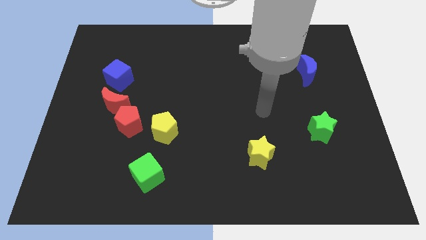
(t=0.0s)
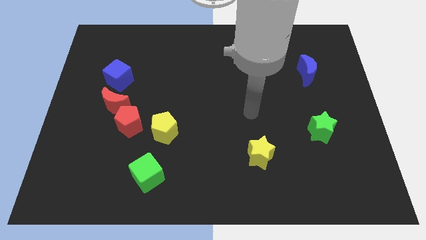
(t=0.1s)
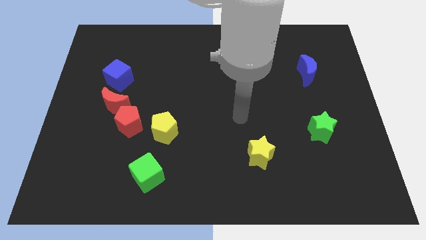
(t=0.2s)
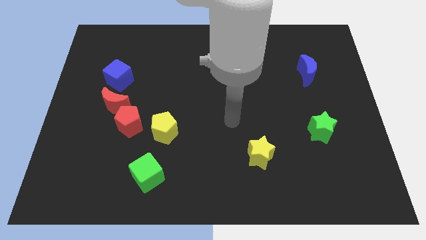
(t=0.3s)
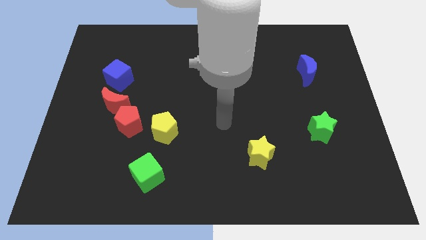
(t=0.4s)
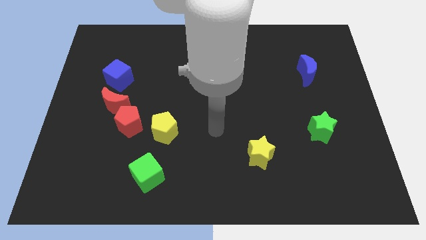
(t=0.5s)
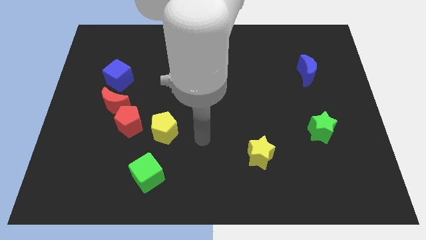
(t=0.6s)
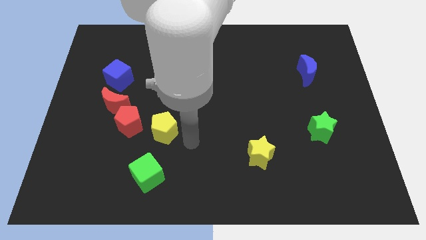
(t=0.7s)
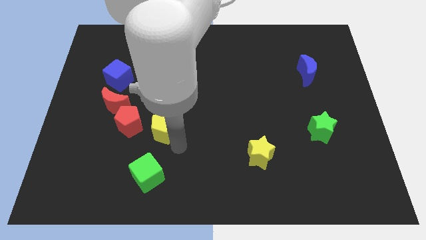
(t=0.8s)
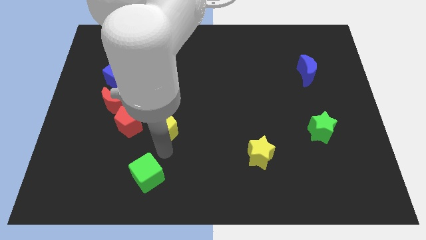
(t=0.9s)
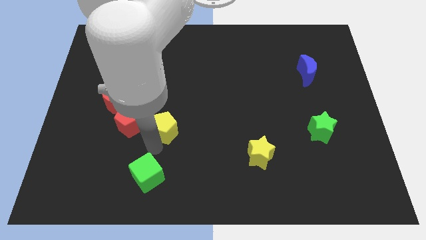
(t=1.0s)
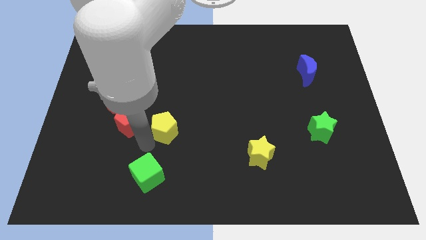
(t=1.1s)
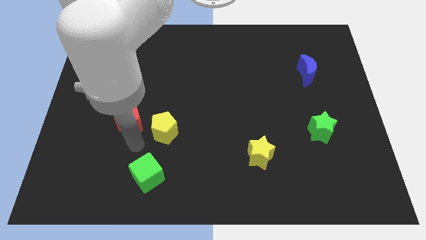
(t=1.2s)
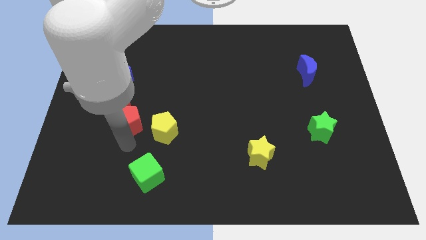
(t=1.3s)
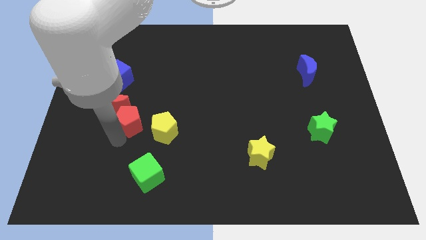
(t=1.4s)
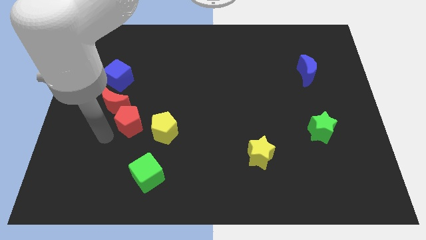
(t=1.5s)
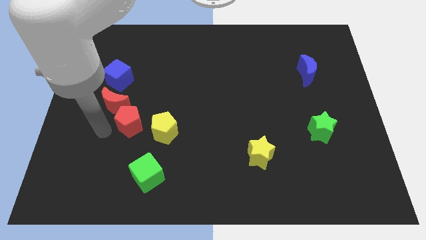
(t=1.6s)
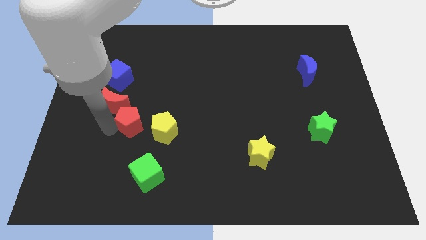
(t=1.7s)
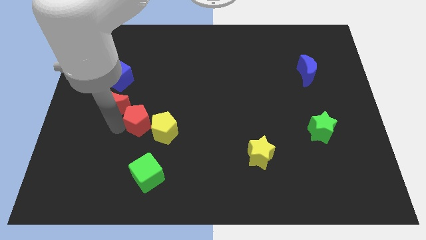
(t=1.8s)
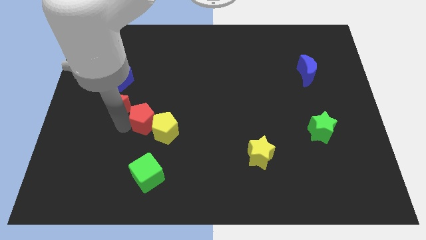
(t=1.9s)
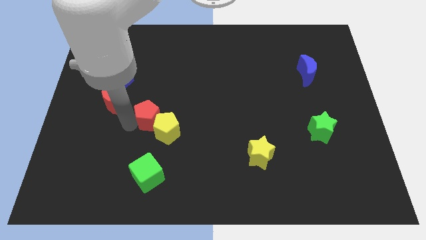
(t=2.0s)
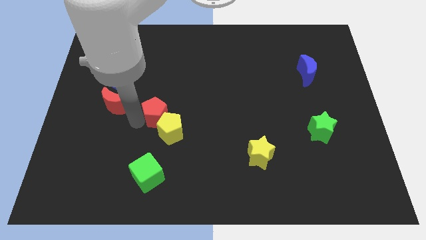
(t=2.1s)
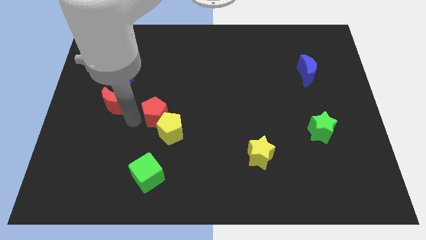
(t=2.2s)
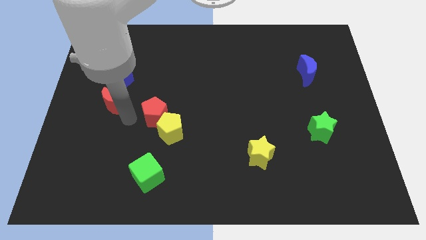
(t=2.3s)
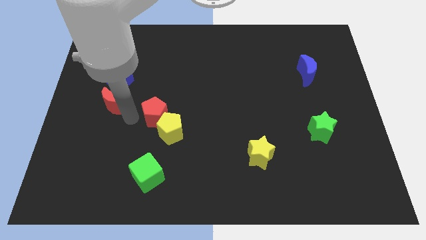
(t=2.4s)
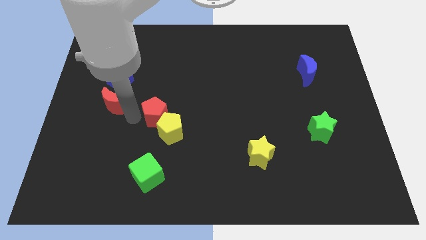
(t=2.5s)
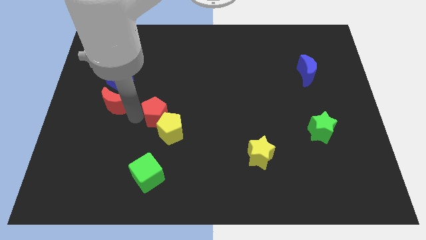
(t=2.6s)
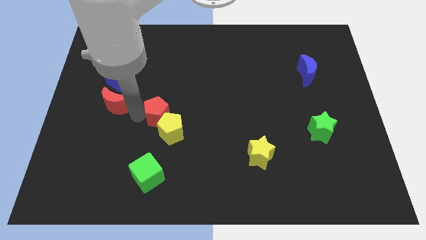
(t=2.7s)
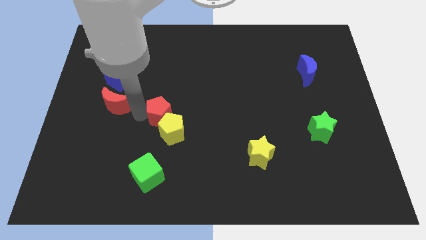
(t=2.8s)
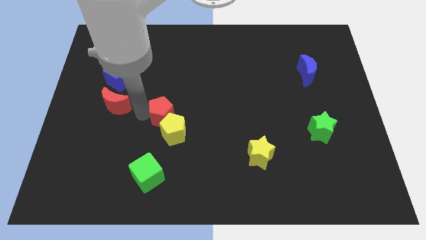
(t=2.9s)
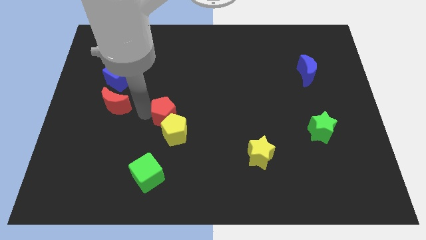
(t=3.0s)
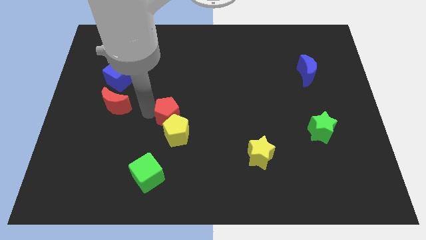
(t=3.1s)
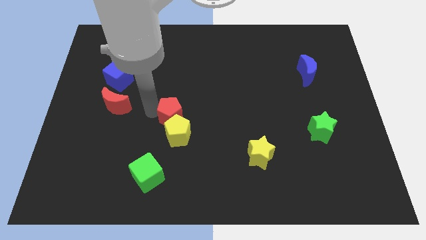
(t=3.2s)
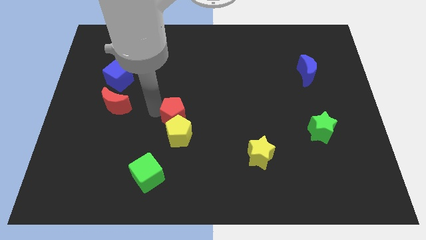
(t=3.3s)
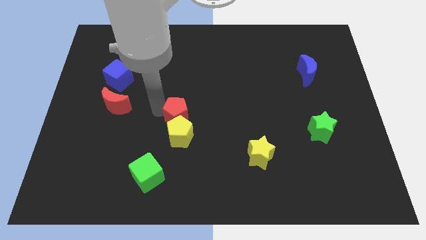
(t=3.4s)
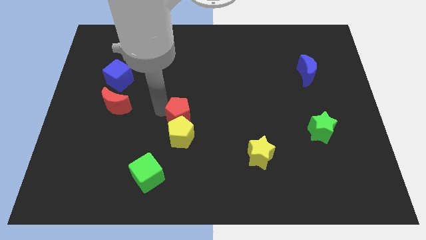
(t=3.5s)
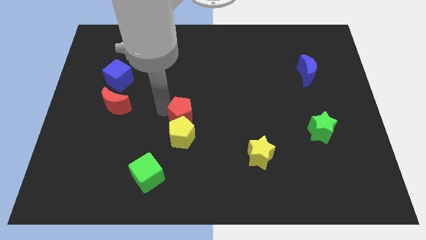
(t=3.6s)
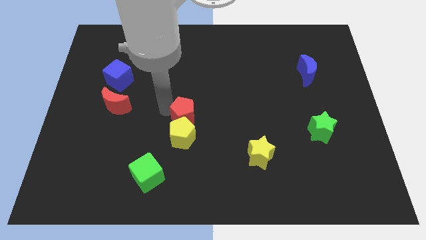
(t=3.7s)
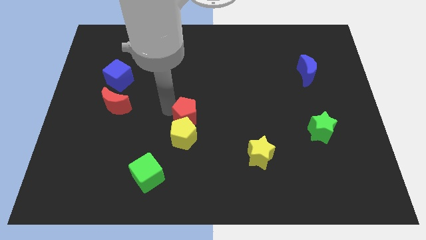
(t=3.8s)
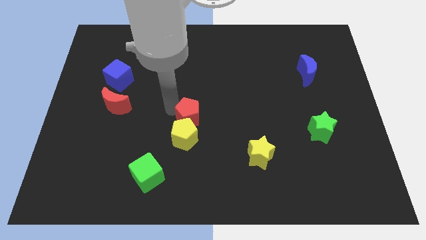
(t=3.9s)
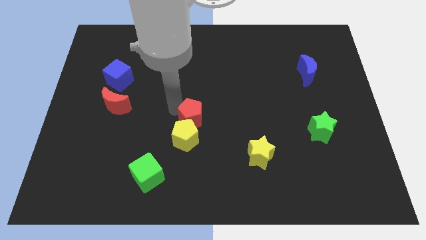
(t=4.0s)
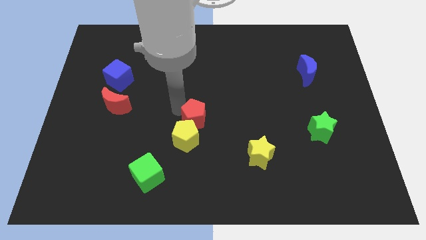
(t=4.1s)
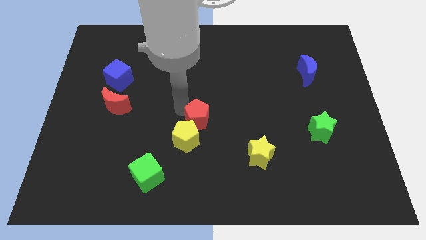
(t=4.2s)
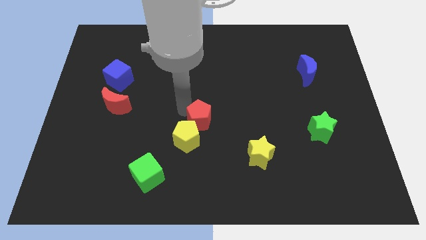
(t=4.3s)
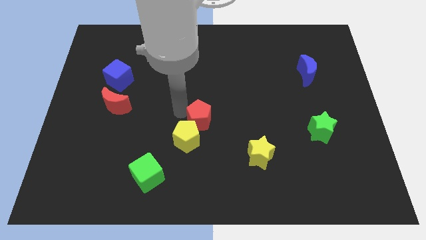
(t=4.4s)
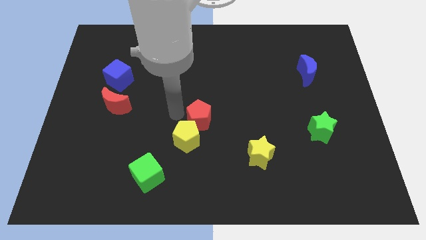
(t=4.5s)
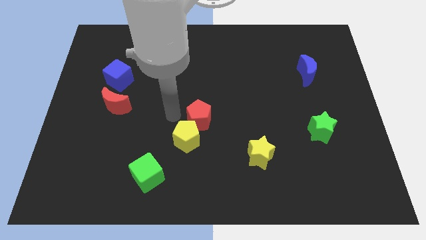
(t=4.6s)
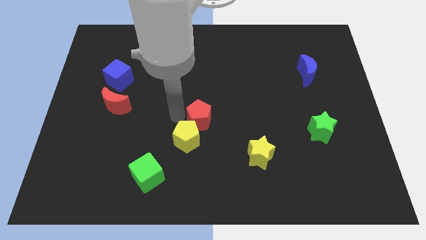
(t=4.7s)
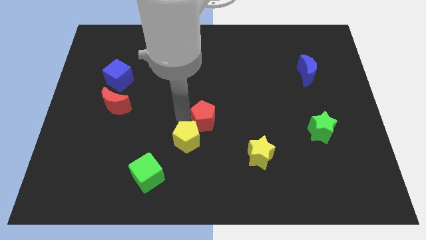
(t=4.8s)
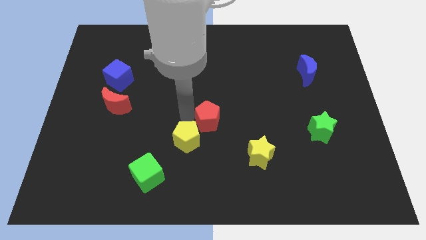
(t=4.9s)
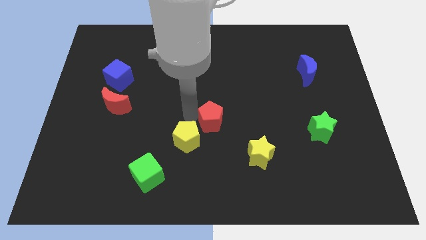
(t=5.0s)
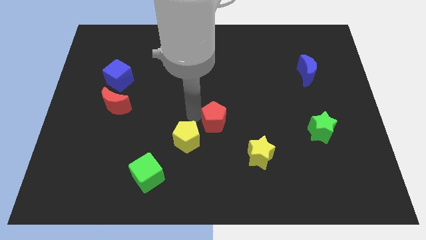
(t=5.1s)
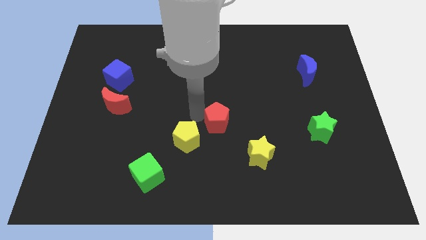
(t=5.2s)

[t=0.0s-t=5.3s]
slide the red pentagon to the top left side of the yellow star

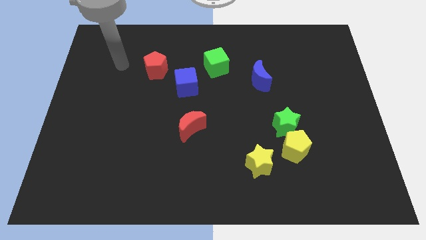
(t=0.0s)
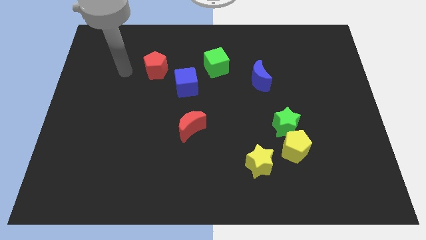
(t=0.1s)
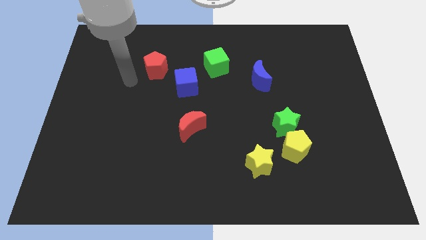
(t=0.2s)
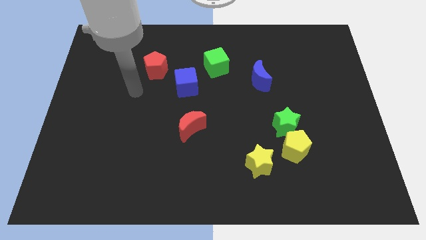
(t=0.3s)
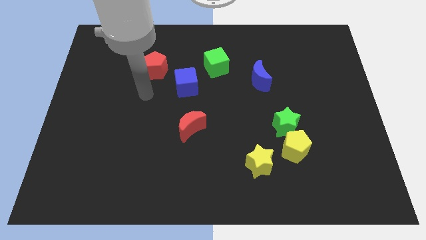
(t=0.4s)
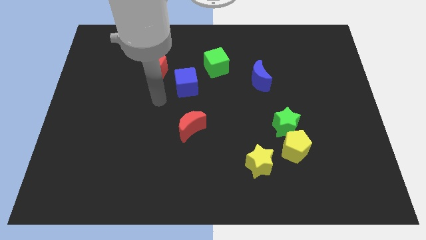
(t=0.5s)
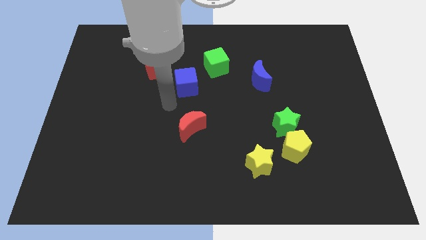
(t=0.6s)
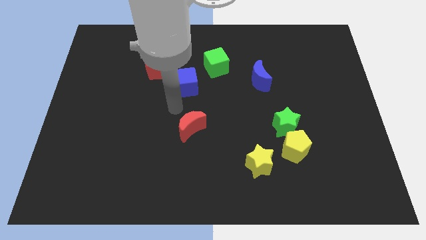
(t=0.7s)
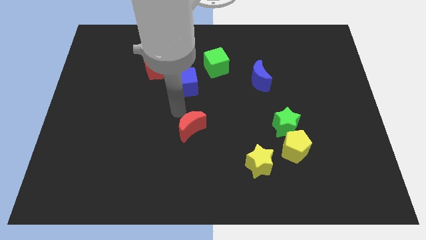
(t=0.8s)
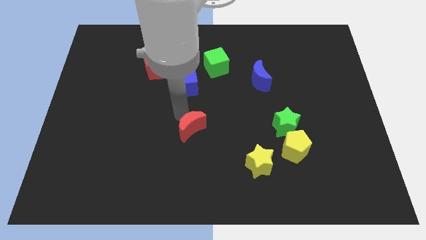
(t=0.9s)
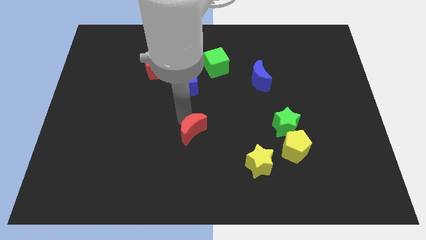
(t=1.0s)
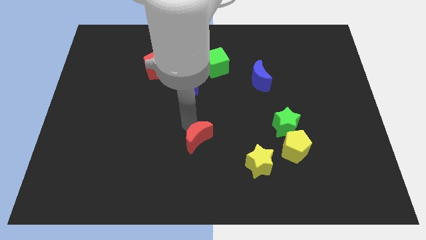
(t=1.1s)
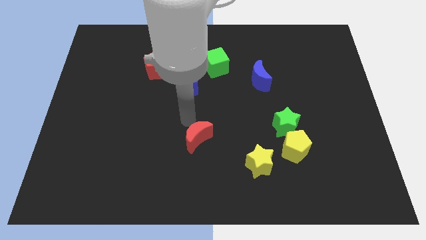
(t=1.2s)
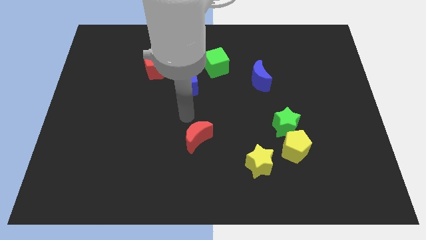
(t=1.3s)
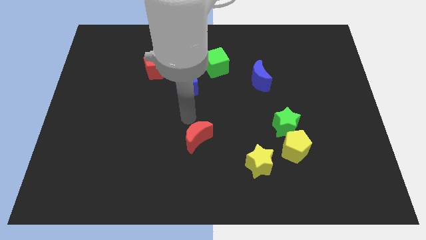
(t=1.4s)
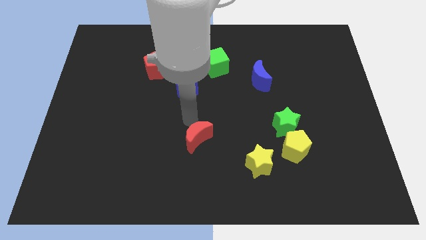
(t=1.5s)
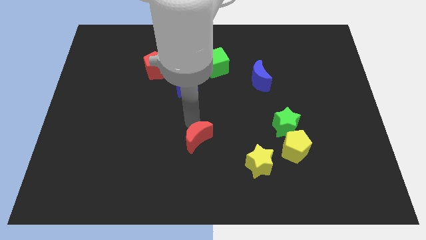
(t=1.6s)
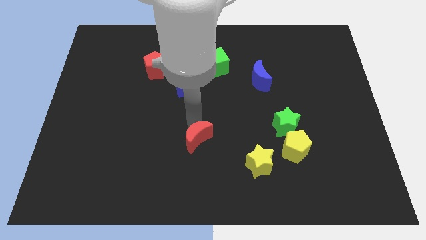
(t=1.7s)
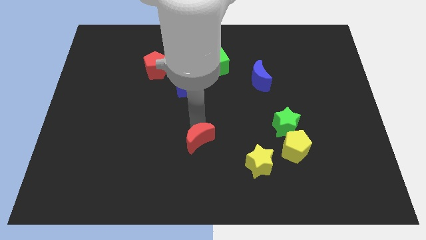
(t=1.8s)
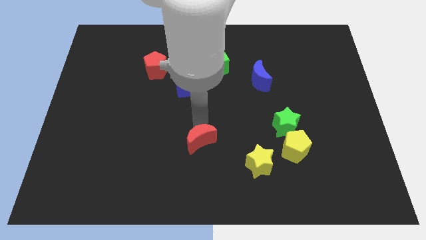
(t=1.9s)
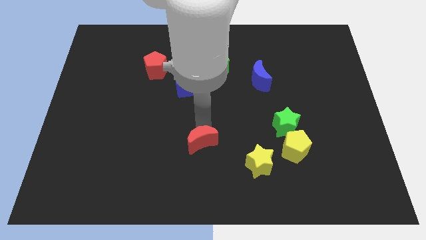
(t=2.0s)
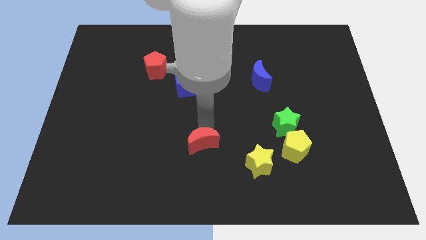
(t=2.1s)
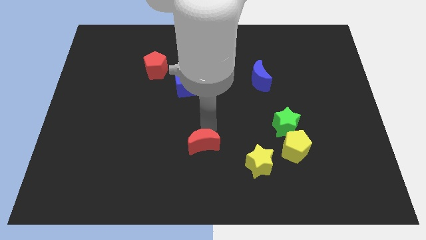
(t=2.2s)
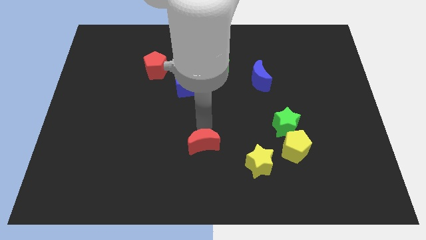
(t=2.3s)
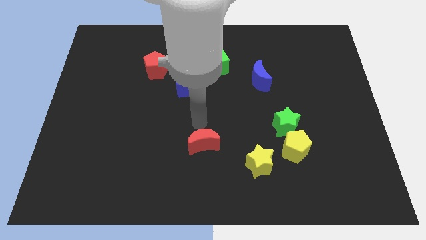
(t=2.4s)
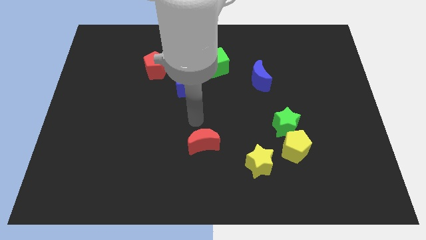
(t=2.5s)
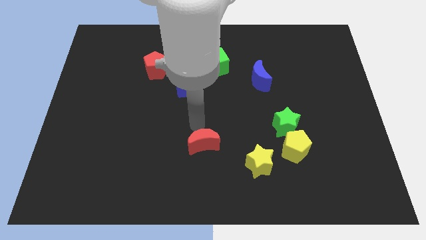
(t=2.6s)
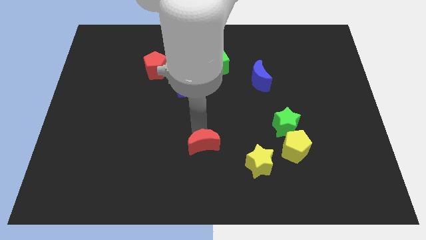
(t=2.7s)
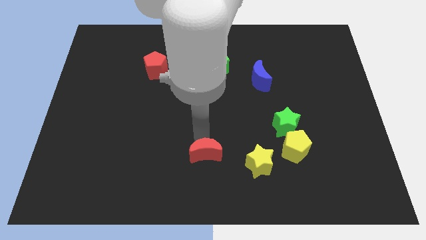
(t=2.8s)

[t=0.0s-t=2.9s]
slide the red moon just left of the yellow star
